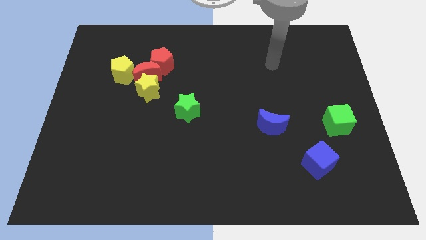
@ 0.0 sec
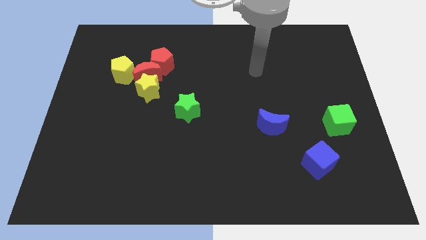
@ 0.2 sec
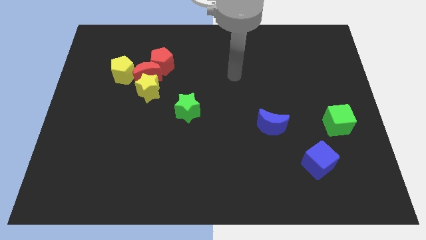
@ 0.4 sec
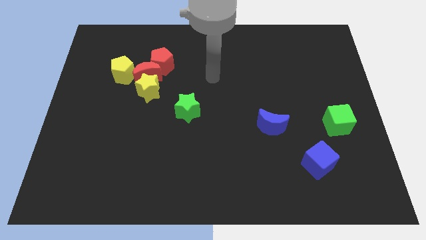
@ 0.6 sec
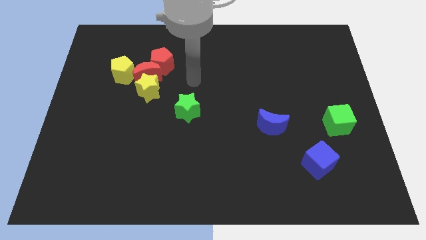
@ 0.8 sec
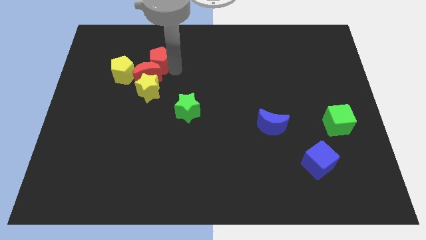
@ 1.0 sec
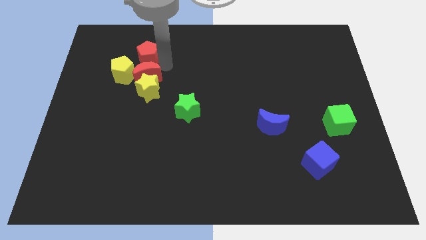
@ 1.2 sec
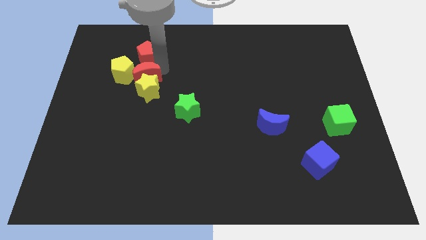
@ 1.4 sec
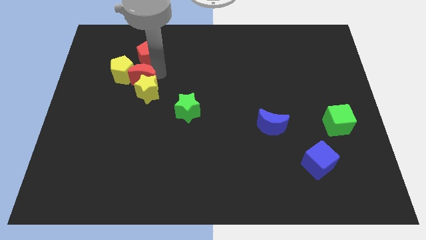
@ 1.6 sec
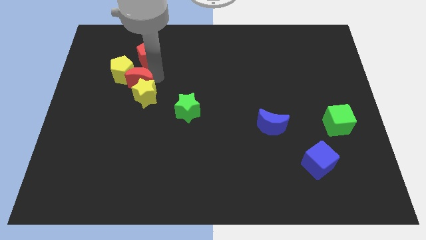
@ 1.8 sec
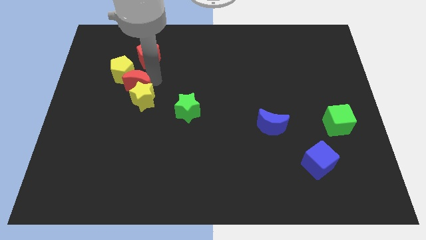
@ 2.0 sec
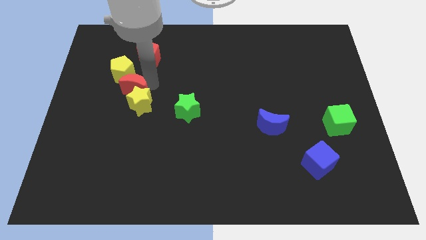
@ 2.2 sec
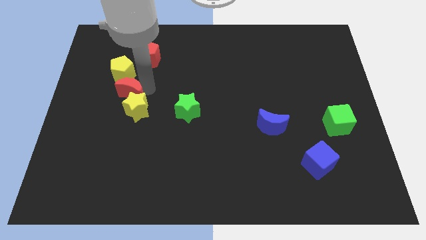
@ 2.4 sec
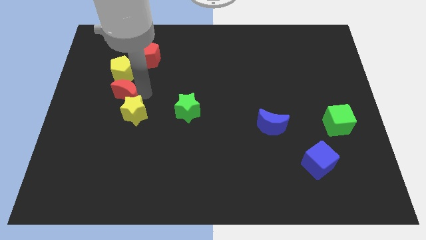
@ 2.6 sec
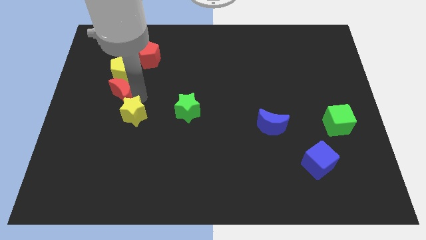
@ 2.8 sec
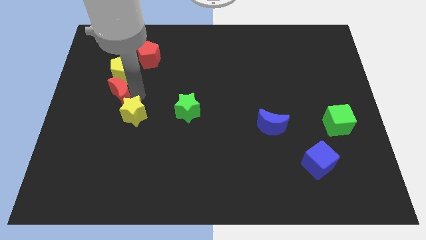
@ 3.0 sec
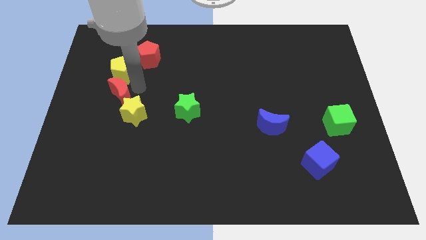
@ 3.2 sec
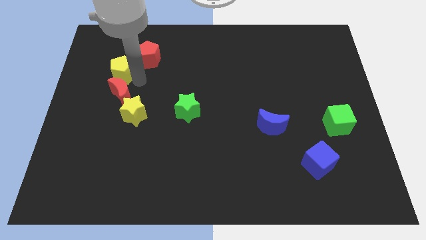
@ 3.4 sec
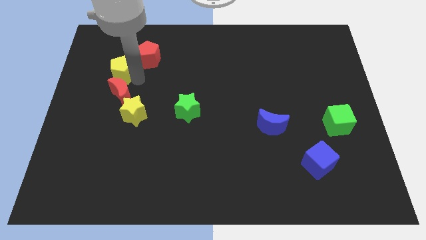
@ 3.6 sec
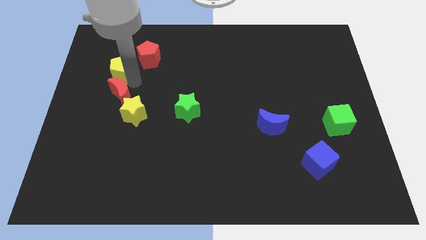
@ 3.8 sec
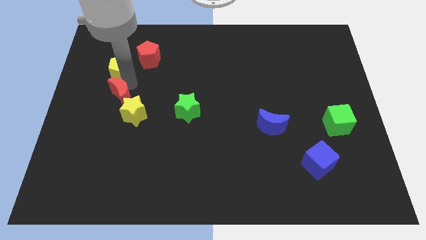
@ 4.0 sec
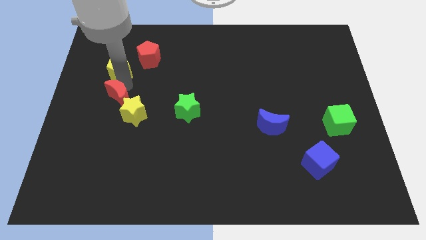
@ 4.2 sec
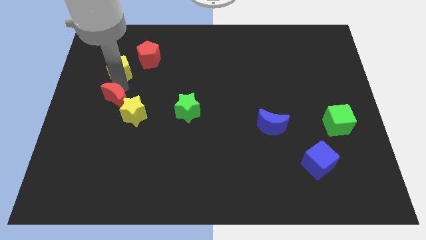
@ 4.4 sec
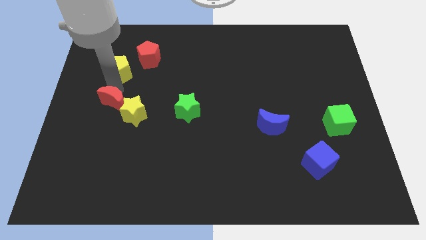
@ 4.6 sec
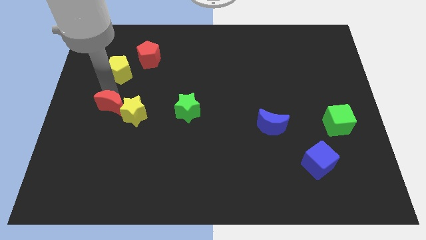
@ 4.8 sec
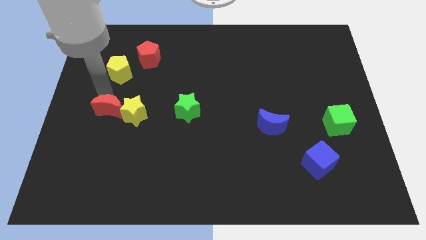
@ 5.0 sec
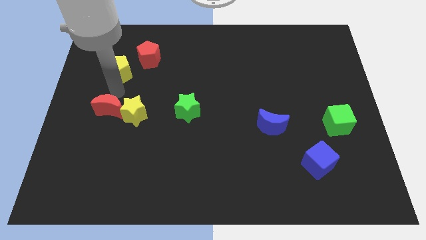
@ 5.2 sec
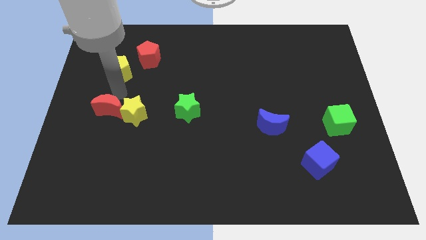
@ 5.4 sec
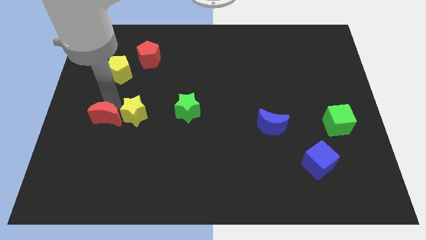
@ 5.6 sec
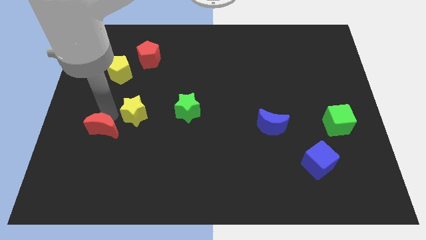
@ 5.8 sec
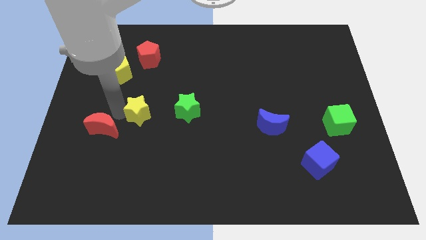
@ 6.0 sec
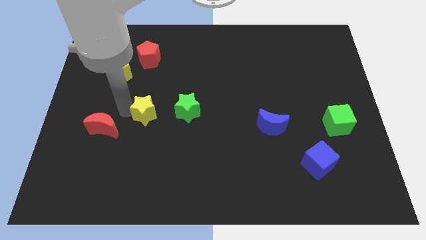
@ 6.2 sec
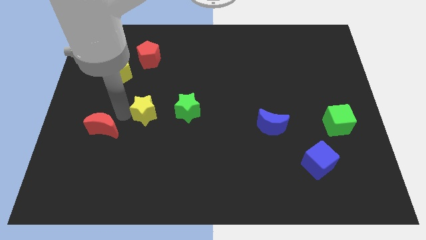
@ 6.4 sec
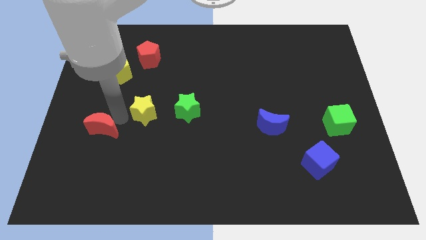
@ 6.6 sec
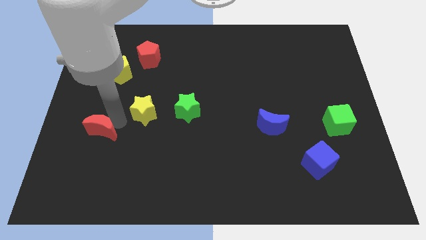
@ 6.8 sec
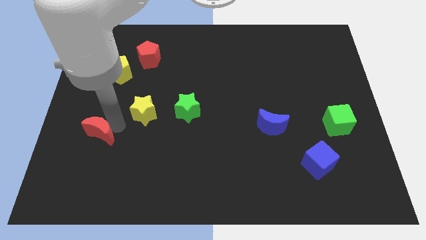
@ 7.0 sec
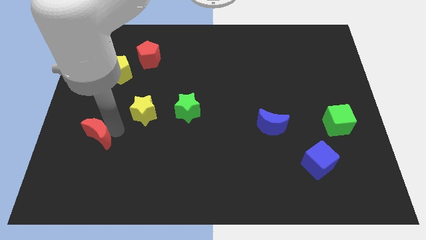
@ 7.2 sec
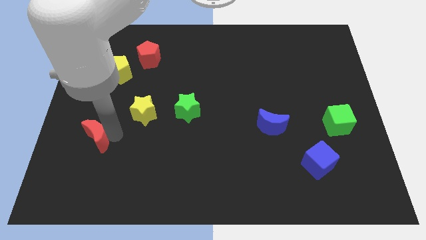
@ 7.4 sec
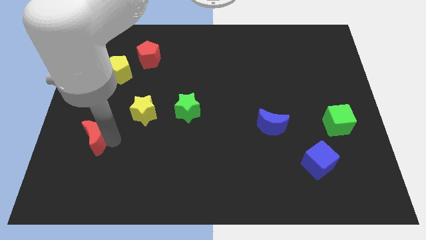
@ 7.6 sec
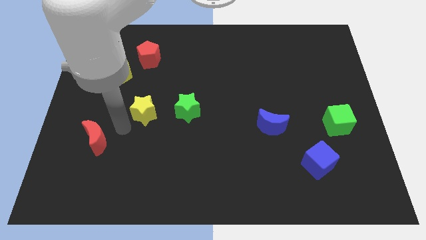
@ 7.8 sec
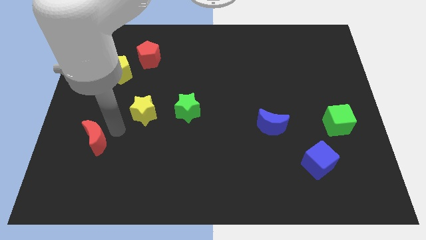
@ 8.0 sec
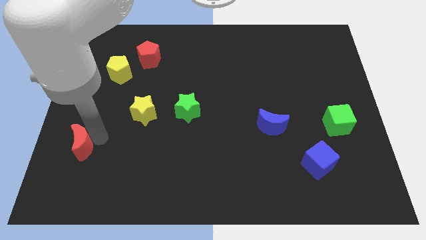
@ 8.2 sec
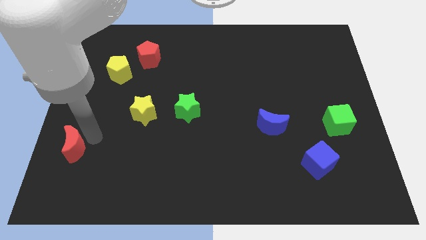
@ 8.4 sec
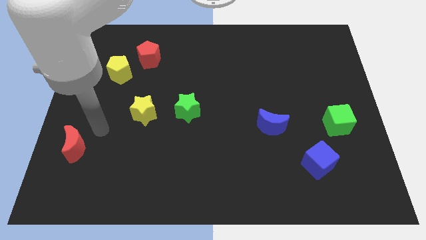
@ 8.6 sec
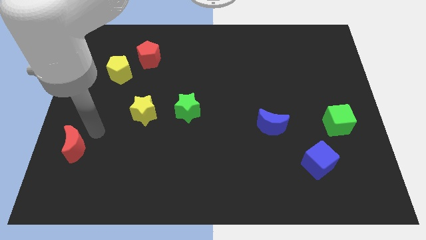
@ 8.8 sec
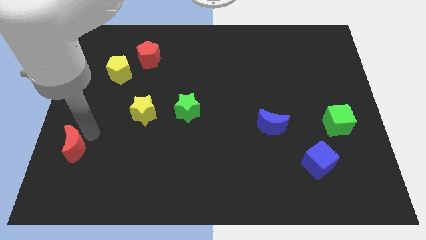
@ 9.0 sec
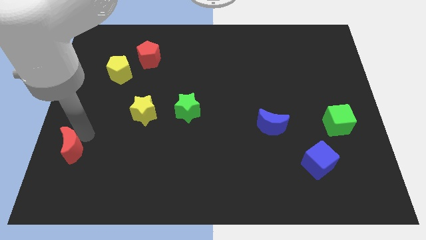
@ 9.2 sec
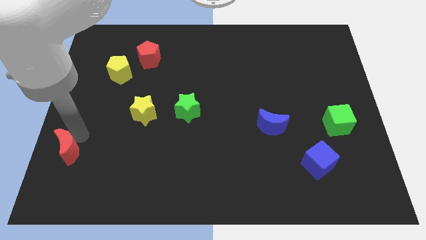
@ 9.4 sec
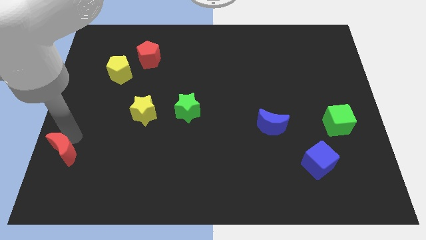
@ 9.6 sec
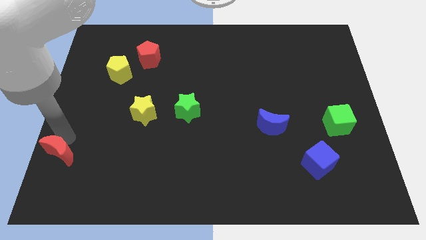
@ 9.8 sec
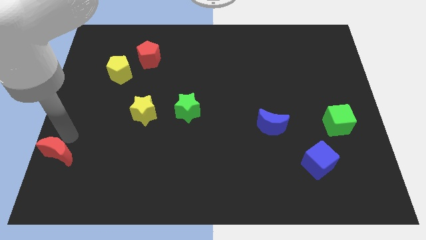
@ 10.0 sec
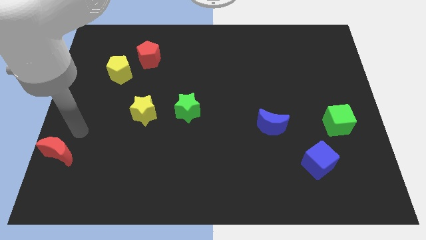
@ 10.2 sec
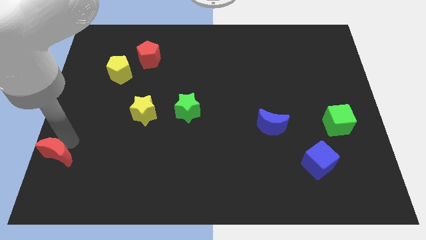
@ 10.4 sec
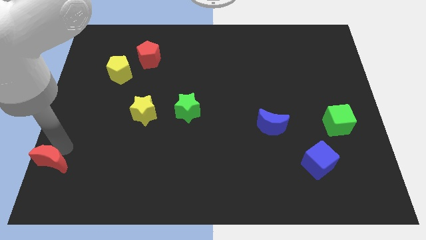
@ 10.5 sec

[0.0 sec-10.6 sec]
push the red moon to the bottom left

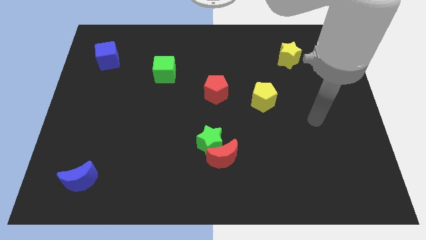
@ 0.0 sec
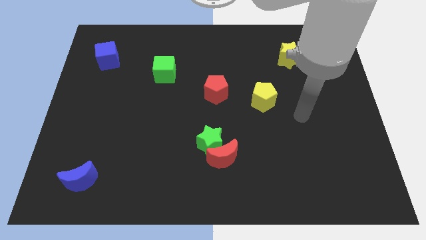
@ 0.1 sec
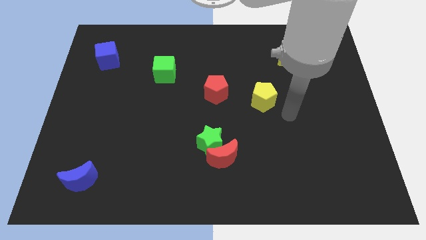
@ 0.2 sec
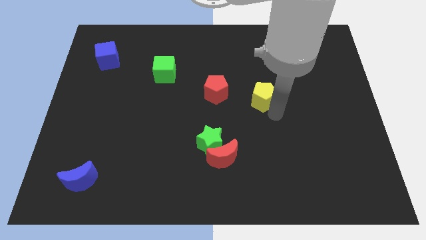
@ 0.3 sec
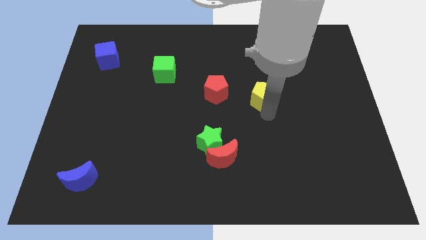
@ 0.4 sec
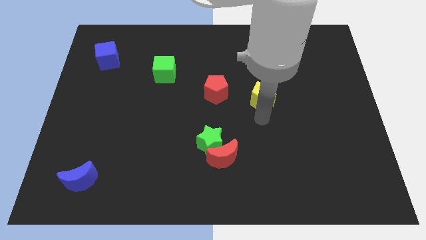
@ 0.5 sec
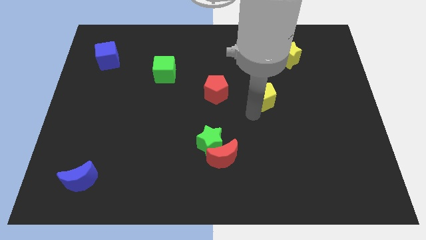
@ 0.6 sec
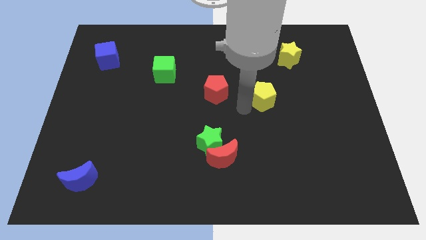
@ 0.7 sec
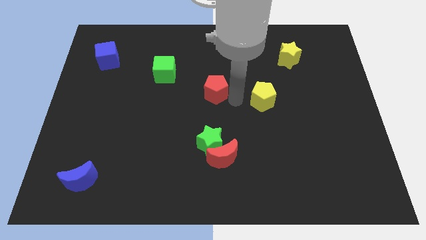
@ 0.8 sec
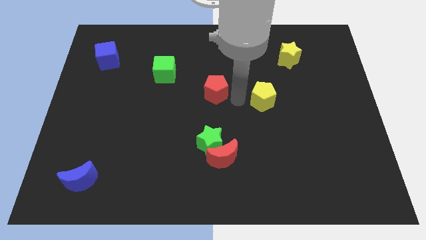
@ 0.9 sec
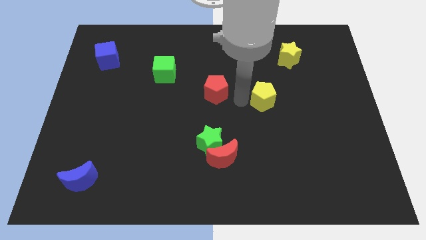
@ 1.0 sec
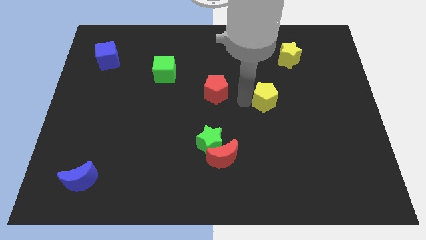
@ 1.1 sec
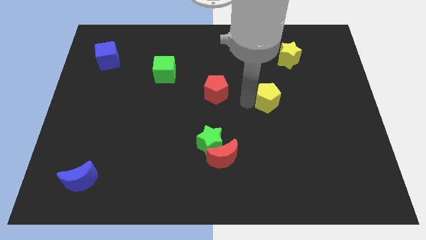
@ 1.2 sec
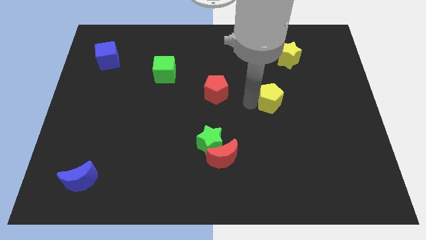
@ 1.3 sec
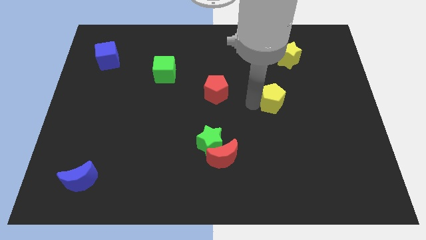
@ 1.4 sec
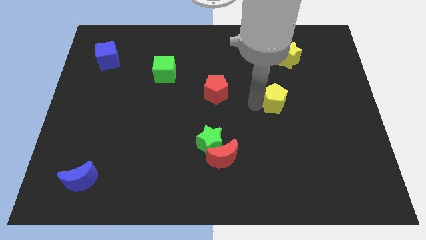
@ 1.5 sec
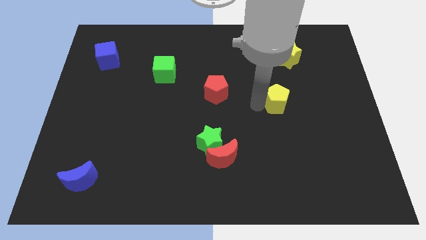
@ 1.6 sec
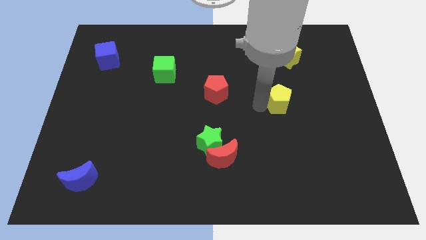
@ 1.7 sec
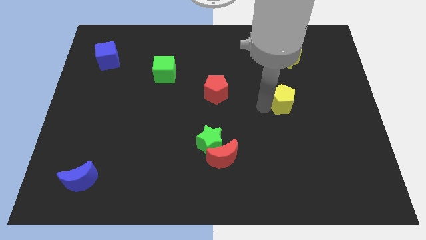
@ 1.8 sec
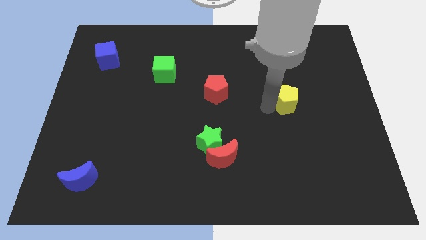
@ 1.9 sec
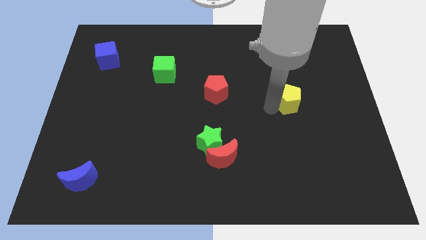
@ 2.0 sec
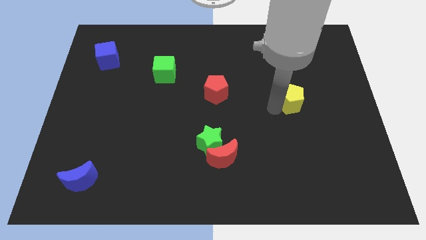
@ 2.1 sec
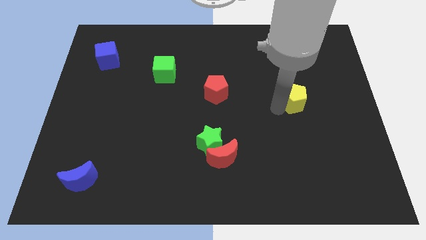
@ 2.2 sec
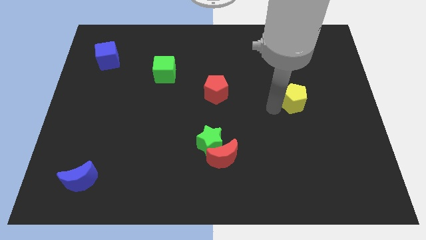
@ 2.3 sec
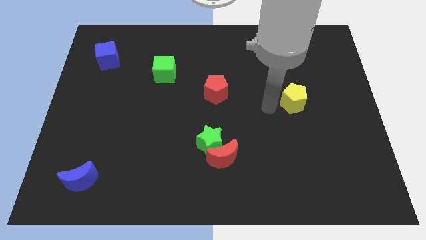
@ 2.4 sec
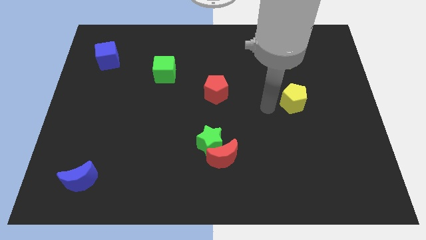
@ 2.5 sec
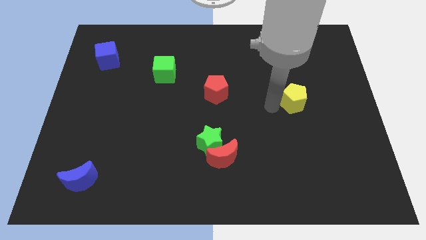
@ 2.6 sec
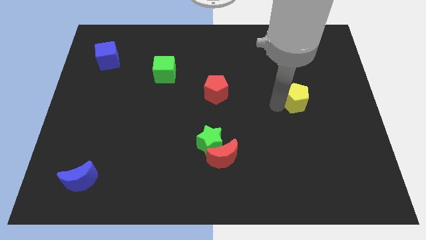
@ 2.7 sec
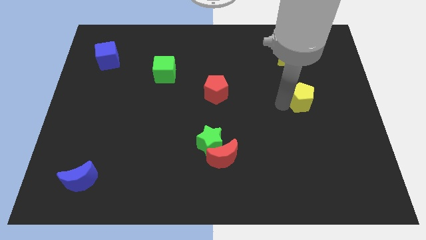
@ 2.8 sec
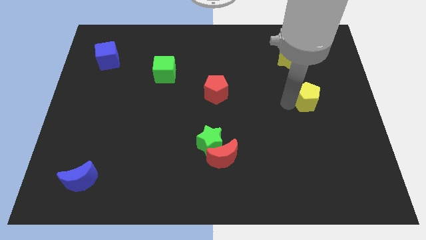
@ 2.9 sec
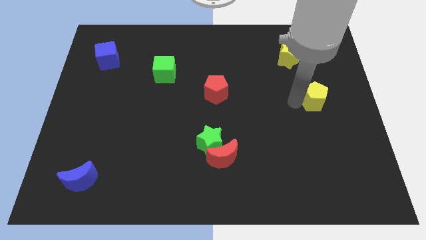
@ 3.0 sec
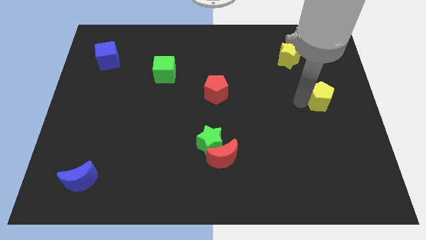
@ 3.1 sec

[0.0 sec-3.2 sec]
put the yellow pentagon to the right side of the board
